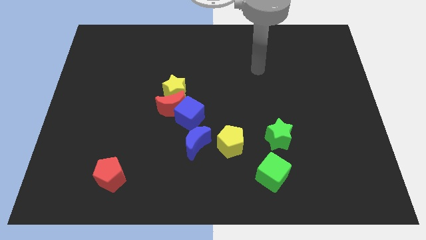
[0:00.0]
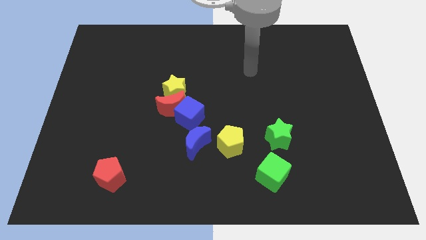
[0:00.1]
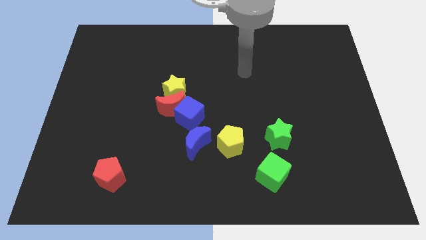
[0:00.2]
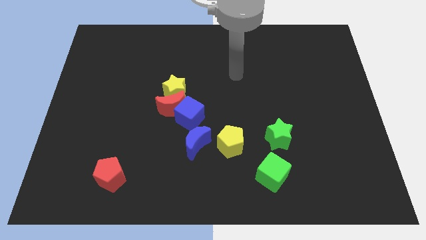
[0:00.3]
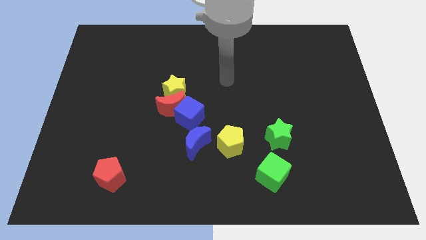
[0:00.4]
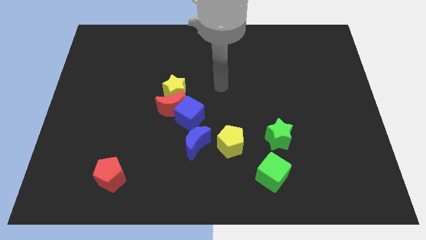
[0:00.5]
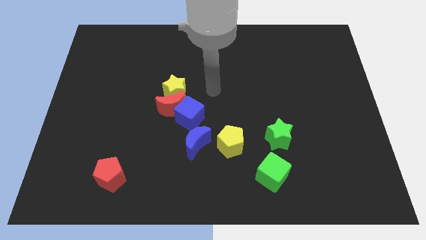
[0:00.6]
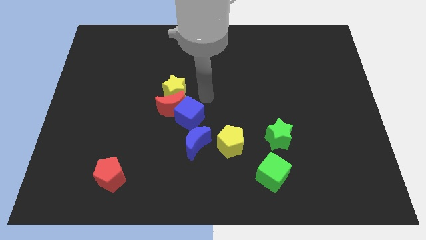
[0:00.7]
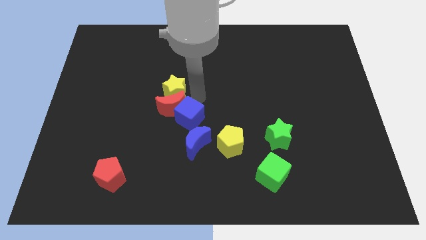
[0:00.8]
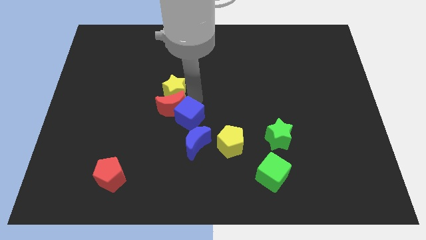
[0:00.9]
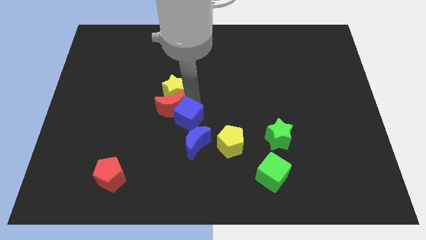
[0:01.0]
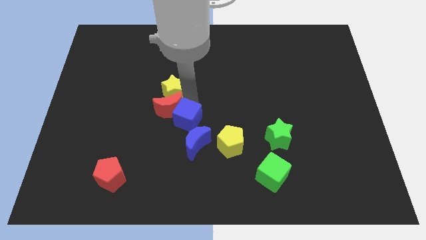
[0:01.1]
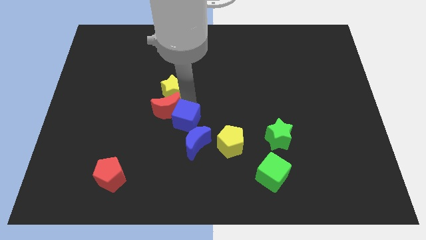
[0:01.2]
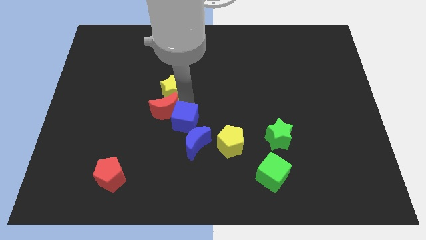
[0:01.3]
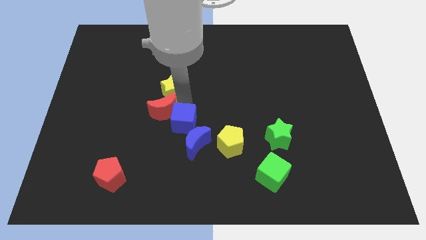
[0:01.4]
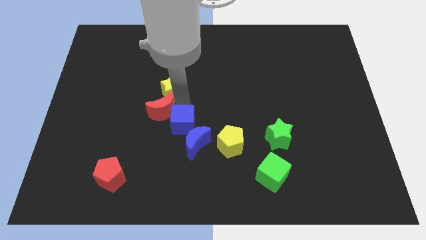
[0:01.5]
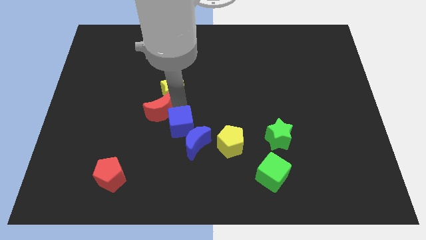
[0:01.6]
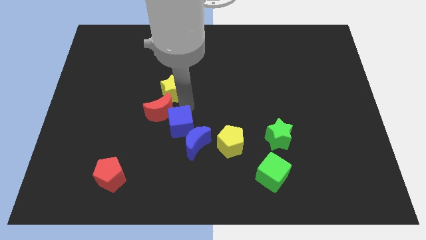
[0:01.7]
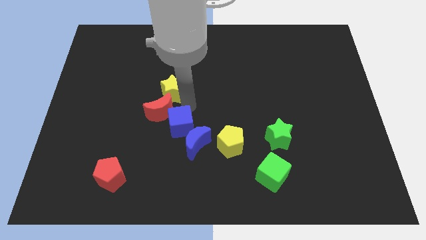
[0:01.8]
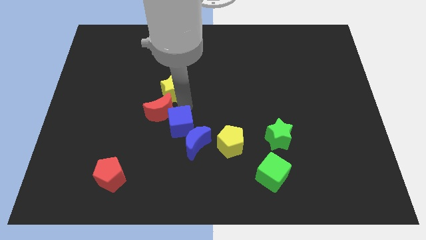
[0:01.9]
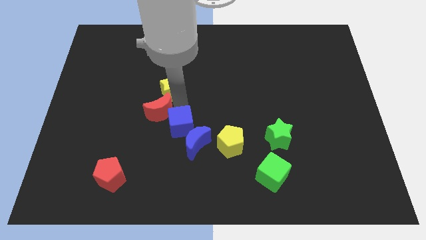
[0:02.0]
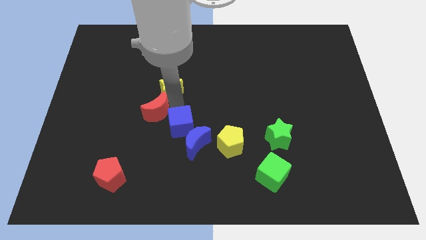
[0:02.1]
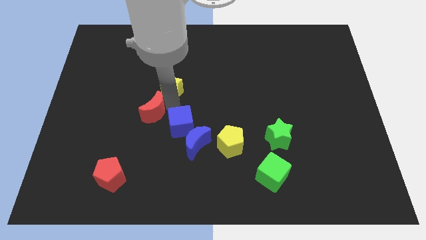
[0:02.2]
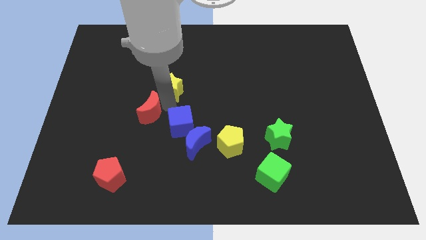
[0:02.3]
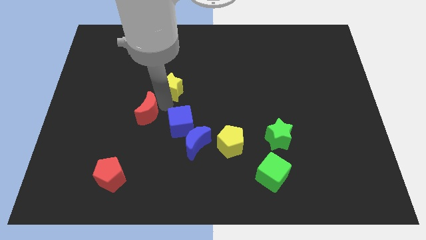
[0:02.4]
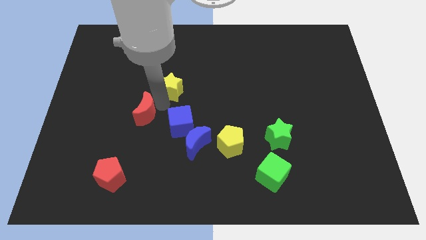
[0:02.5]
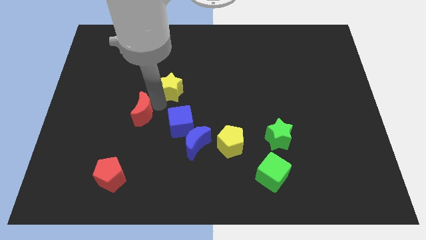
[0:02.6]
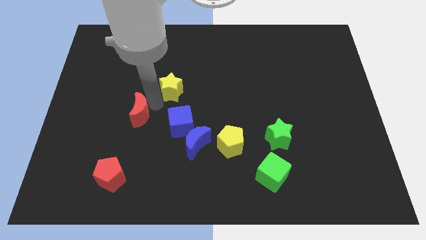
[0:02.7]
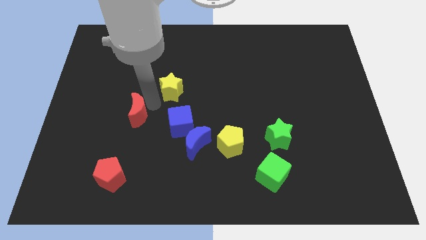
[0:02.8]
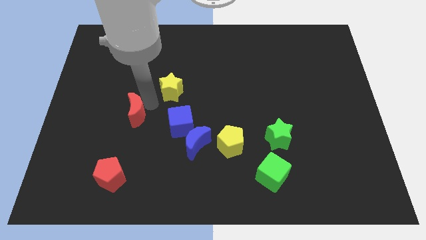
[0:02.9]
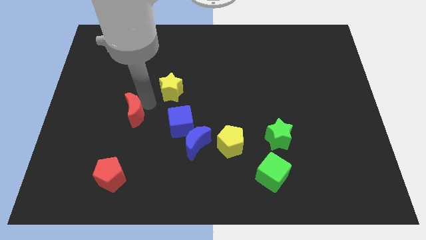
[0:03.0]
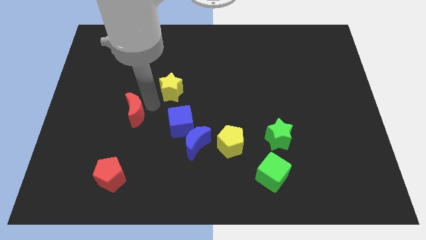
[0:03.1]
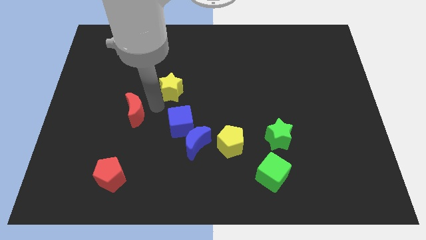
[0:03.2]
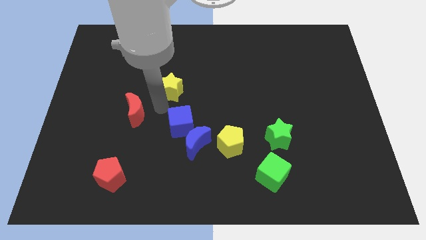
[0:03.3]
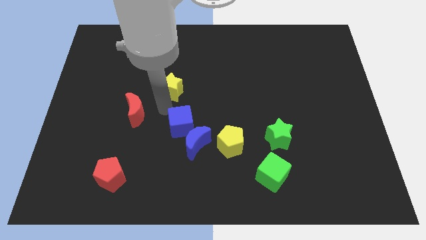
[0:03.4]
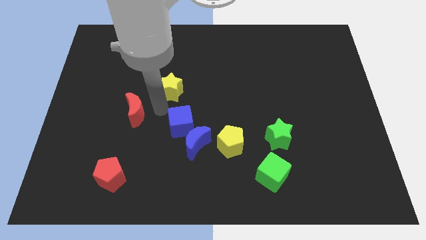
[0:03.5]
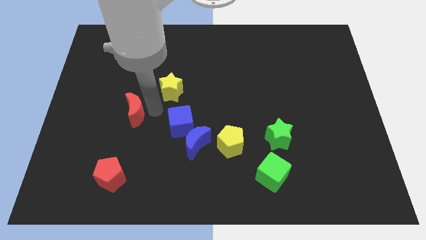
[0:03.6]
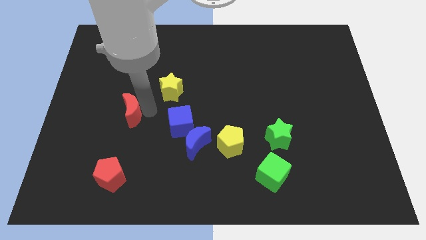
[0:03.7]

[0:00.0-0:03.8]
move the red moon away from the blue cube and yellow star

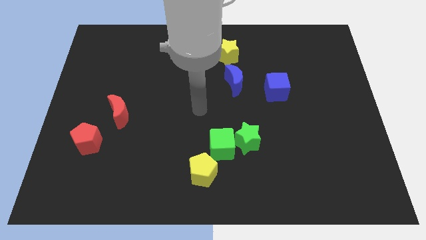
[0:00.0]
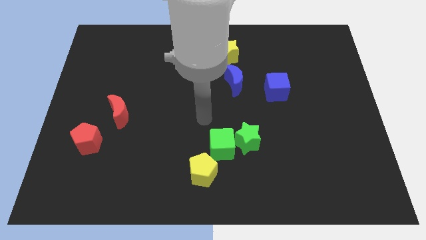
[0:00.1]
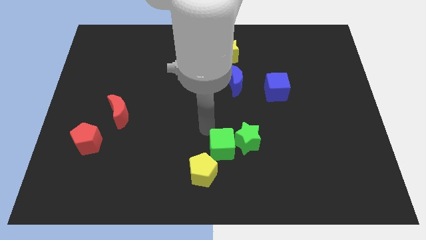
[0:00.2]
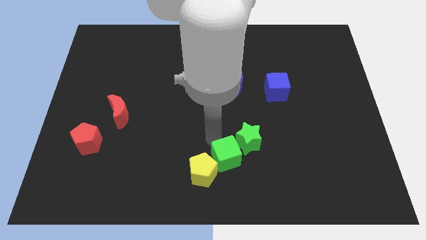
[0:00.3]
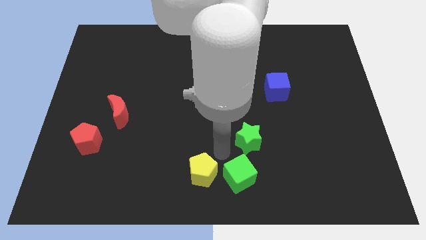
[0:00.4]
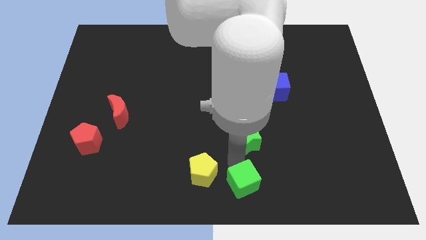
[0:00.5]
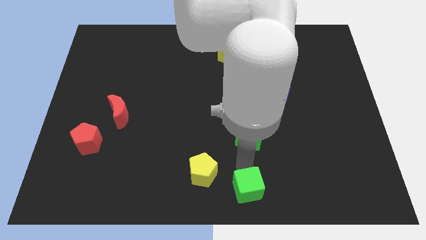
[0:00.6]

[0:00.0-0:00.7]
move the green star away from the green cube

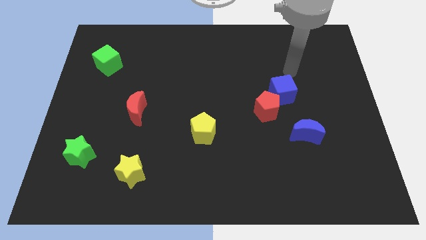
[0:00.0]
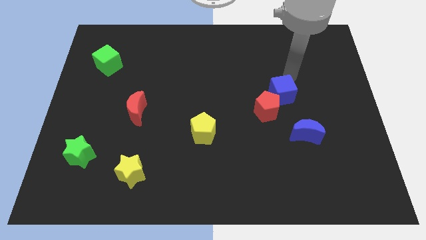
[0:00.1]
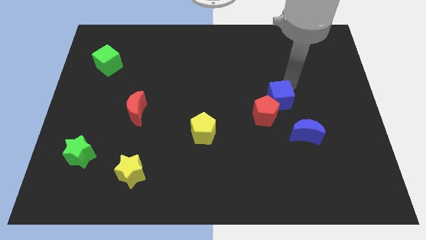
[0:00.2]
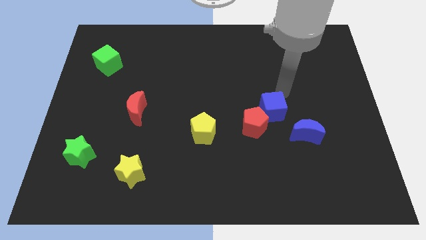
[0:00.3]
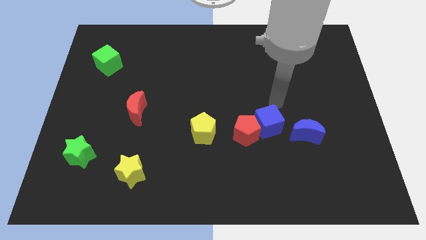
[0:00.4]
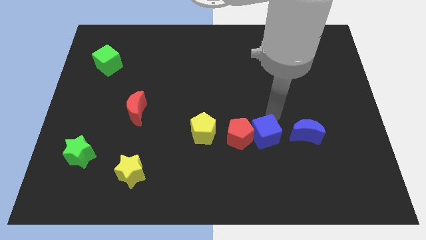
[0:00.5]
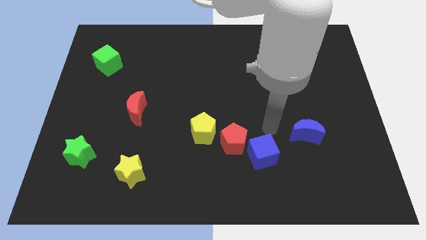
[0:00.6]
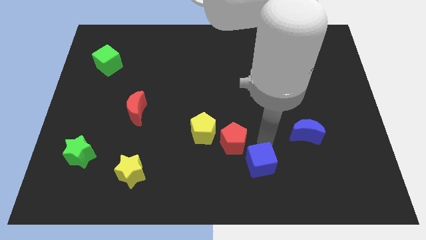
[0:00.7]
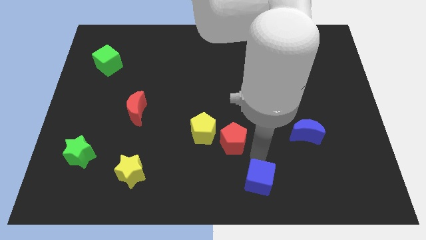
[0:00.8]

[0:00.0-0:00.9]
separate the red pentagon from the blue cube

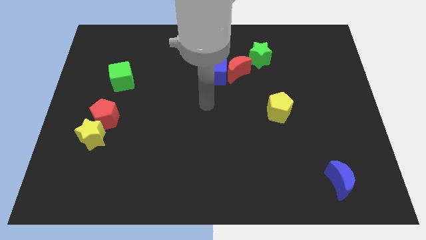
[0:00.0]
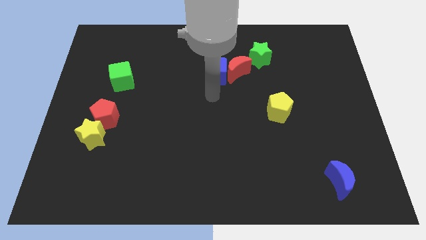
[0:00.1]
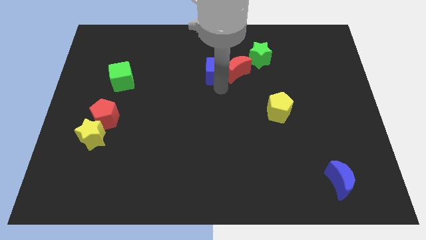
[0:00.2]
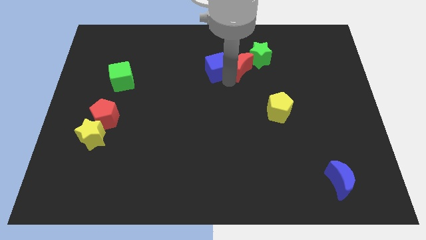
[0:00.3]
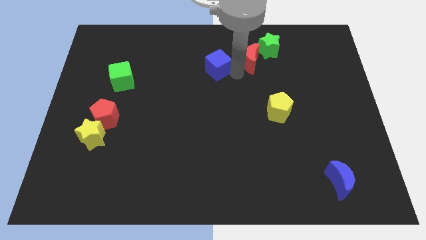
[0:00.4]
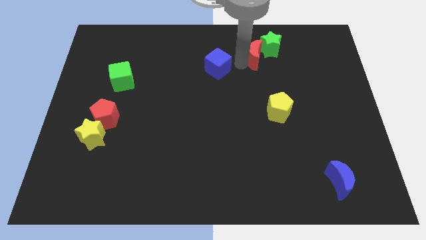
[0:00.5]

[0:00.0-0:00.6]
move the blue cube away from the red moon

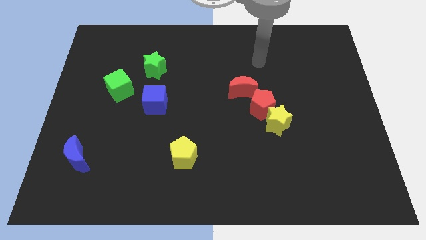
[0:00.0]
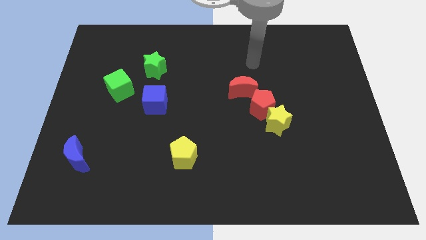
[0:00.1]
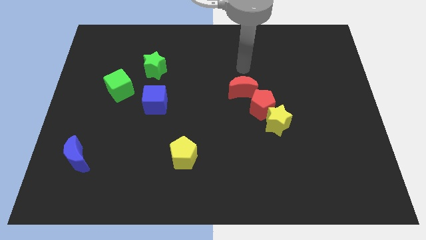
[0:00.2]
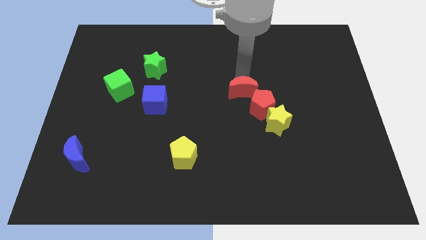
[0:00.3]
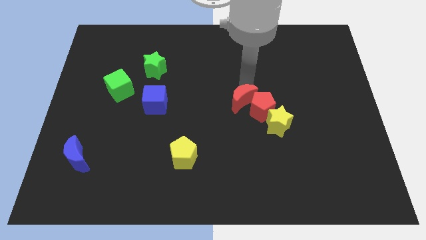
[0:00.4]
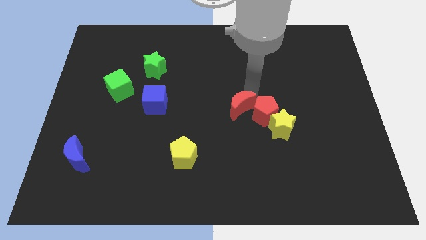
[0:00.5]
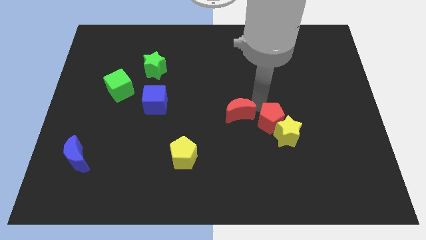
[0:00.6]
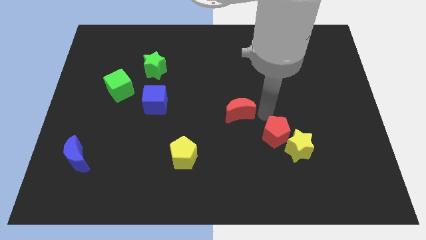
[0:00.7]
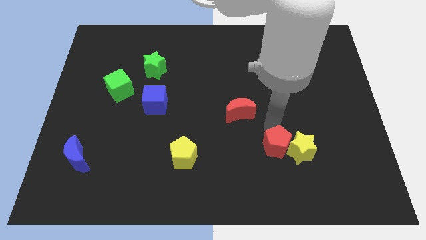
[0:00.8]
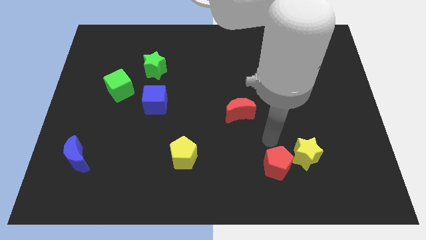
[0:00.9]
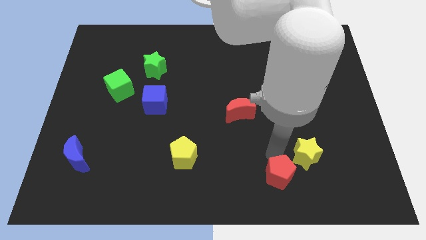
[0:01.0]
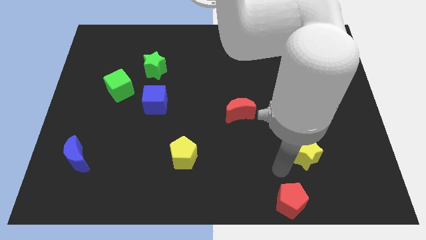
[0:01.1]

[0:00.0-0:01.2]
move the yellow star away from the red pentagon

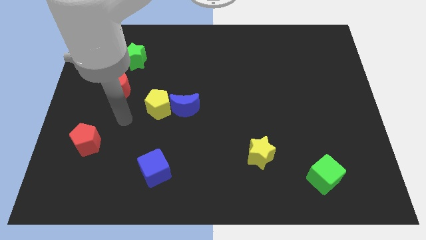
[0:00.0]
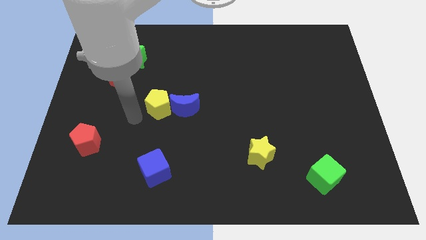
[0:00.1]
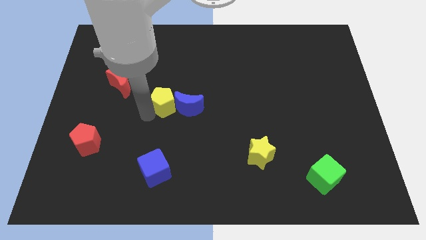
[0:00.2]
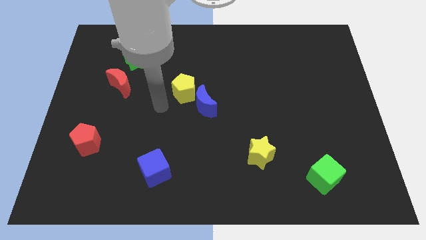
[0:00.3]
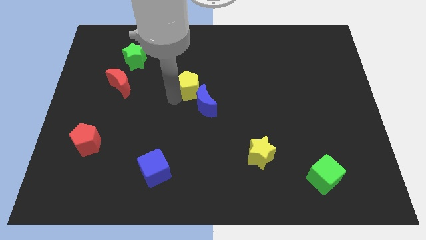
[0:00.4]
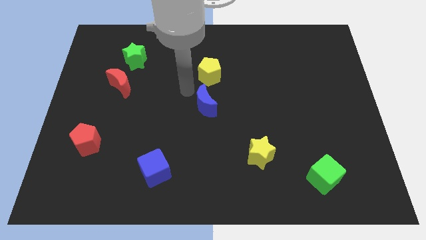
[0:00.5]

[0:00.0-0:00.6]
separate the blue moon from the yellow pentagon

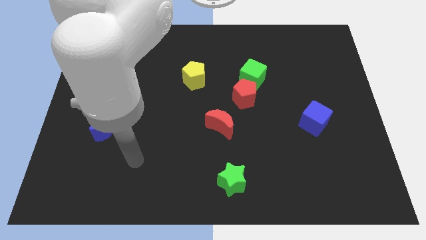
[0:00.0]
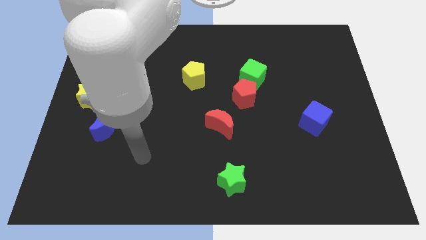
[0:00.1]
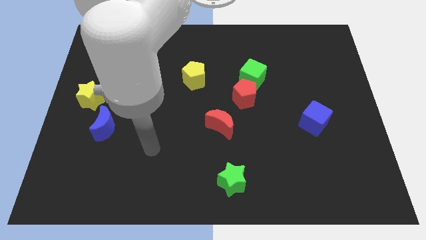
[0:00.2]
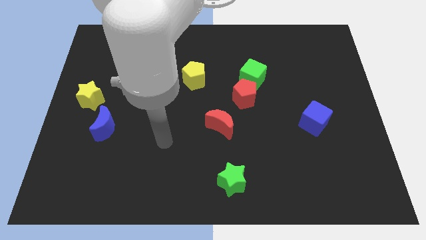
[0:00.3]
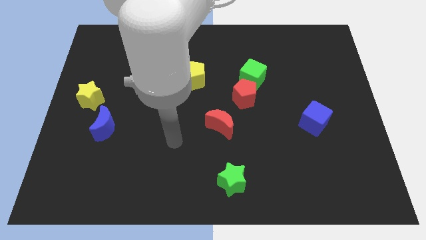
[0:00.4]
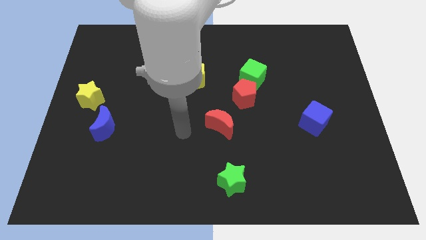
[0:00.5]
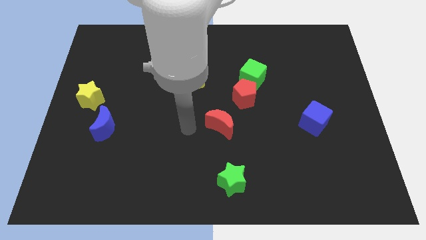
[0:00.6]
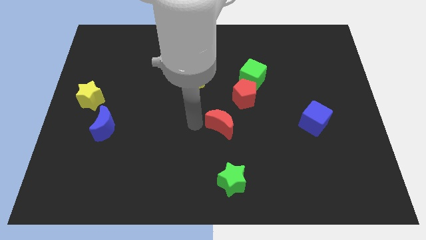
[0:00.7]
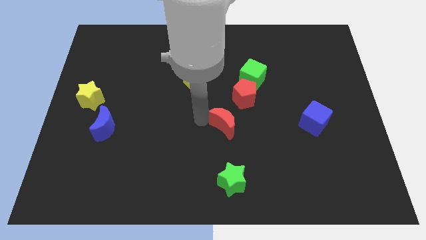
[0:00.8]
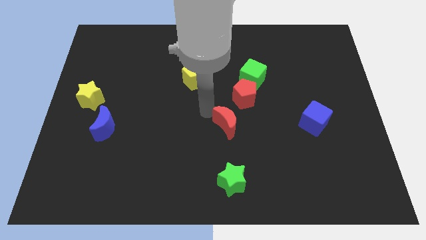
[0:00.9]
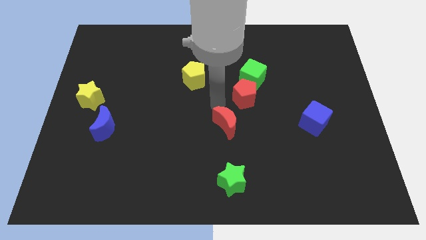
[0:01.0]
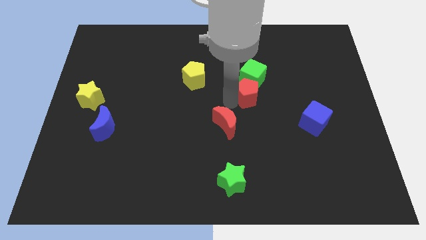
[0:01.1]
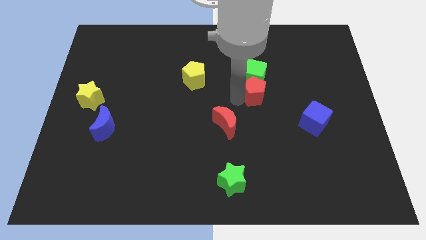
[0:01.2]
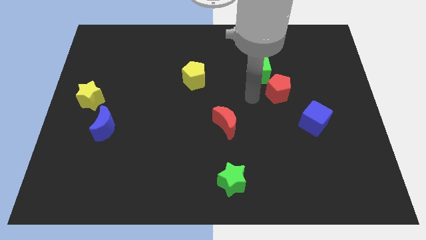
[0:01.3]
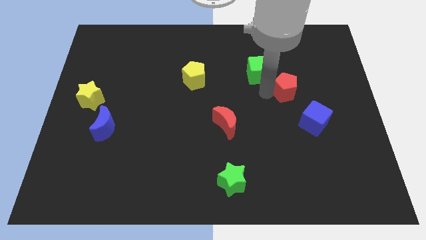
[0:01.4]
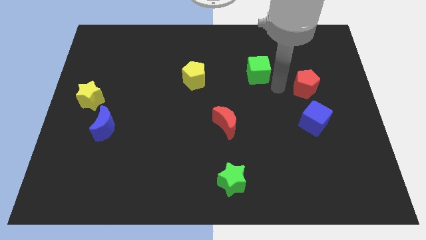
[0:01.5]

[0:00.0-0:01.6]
separate the green cube from the red pentagon
